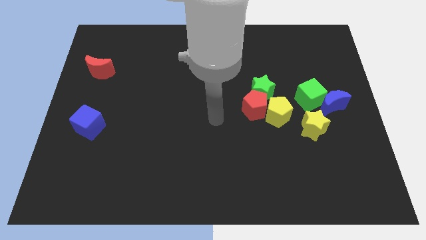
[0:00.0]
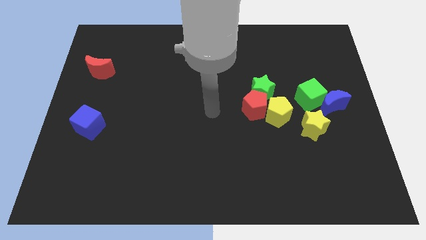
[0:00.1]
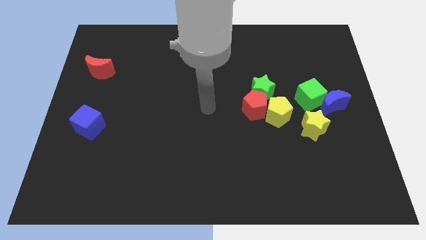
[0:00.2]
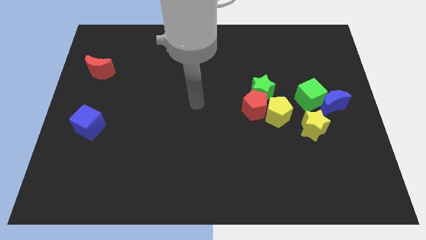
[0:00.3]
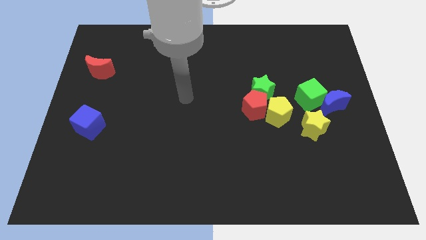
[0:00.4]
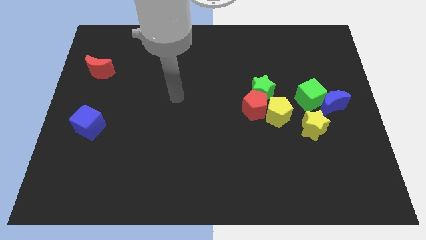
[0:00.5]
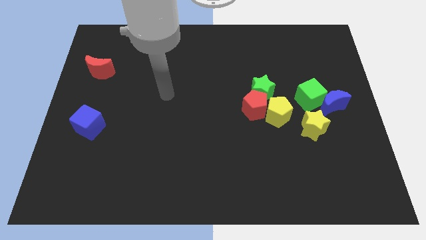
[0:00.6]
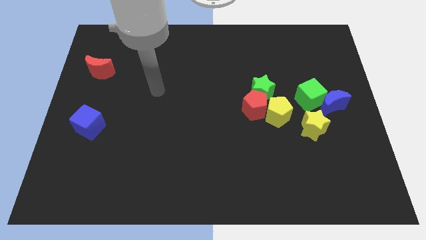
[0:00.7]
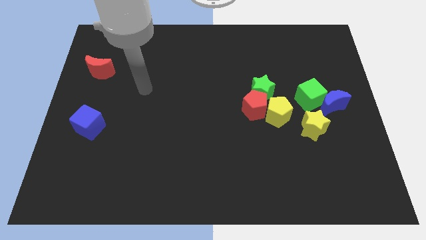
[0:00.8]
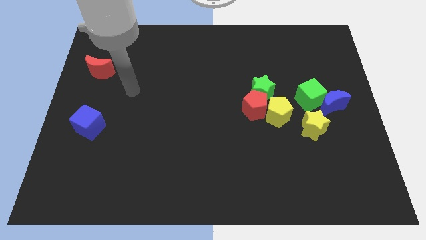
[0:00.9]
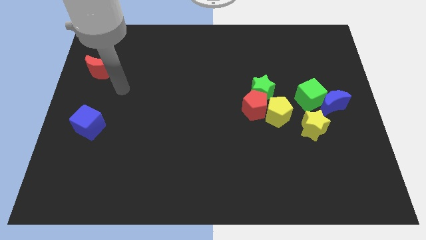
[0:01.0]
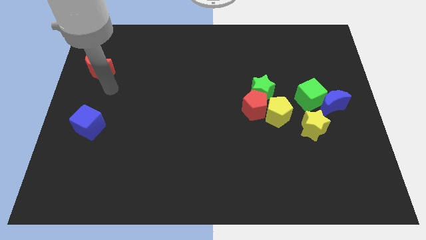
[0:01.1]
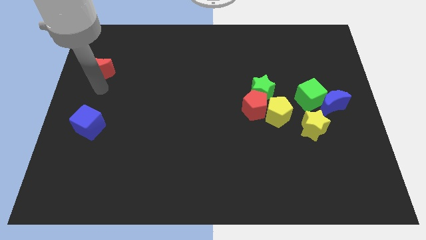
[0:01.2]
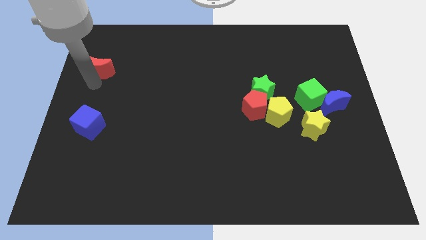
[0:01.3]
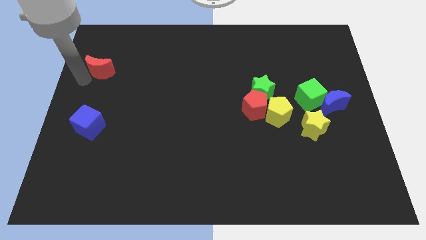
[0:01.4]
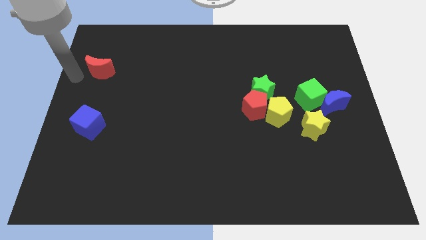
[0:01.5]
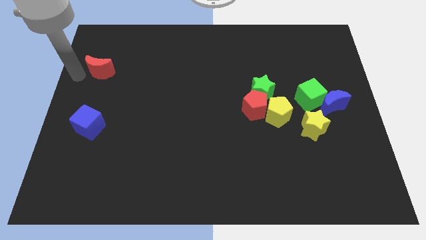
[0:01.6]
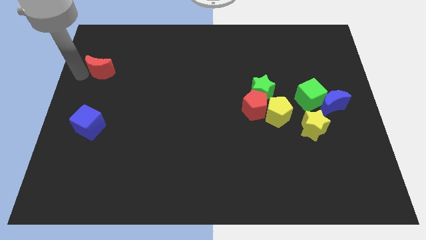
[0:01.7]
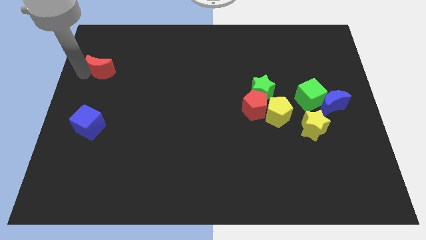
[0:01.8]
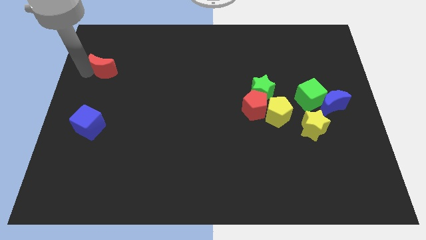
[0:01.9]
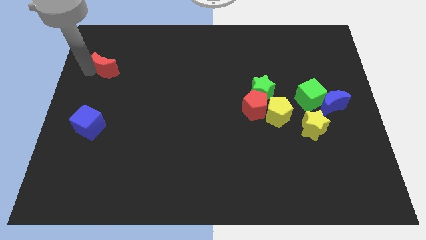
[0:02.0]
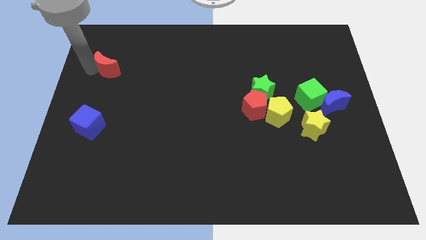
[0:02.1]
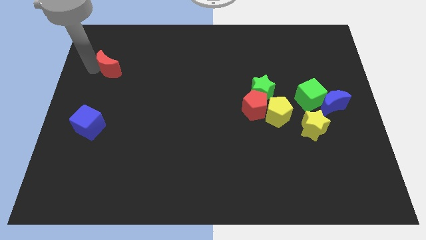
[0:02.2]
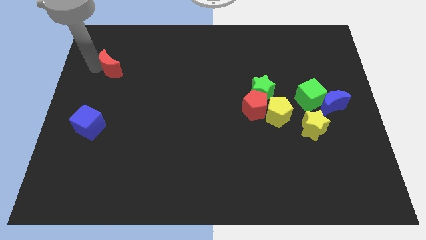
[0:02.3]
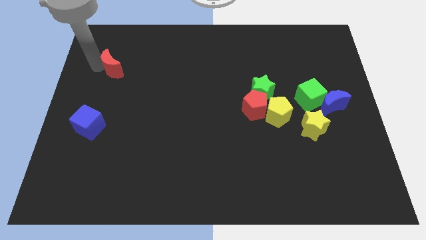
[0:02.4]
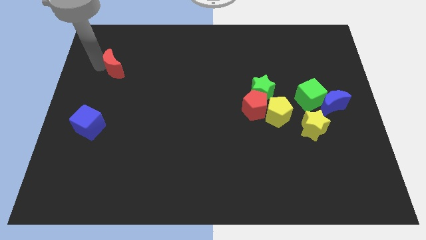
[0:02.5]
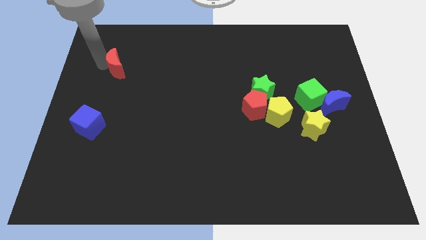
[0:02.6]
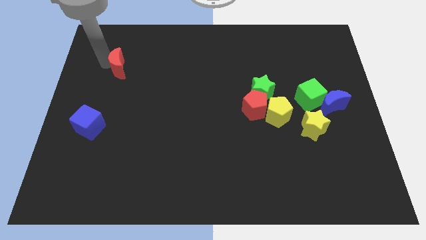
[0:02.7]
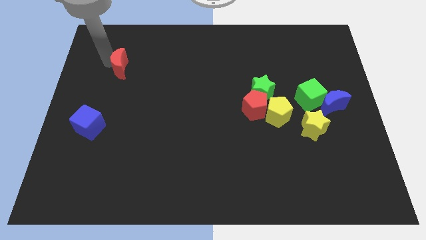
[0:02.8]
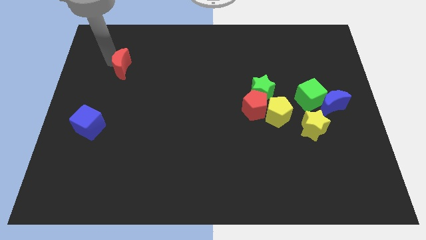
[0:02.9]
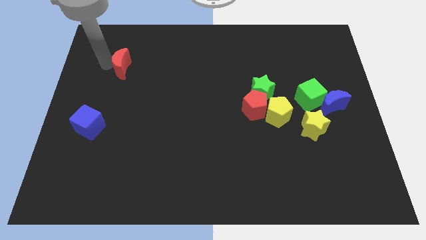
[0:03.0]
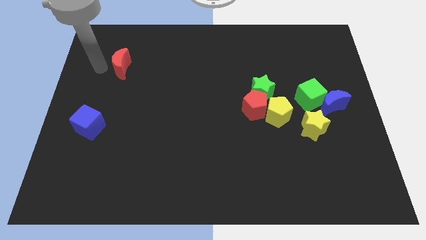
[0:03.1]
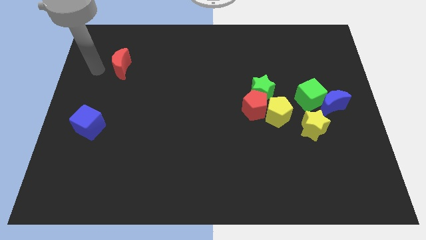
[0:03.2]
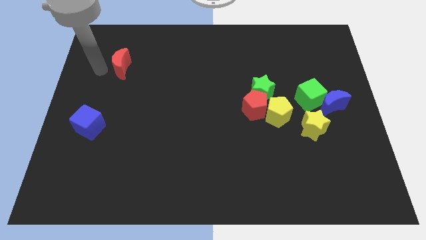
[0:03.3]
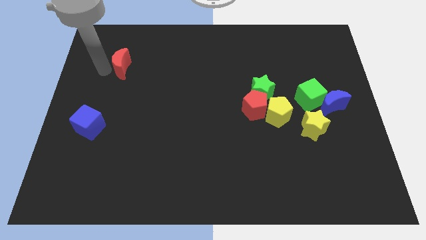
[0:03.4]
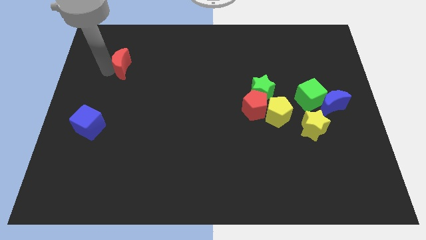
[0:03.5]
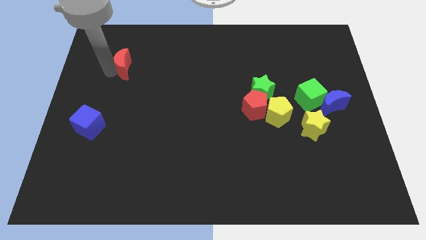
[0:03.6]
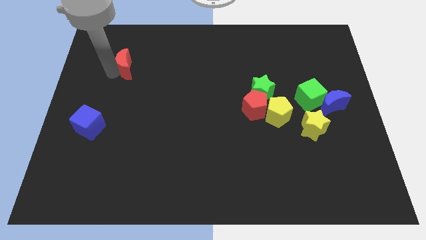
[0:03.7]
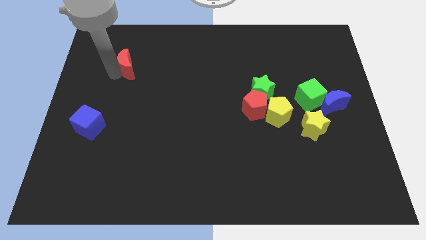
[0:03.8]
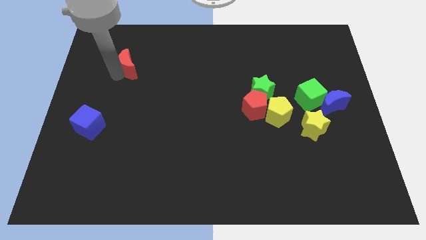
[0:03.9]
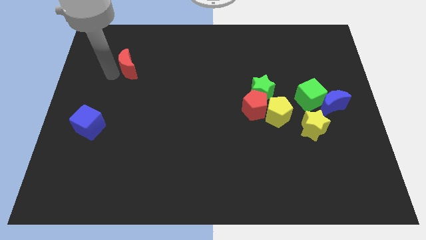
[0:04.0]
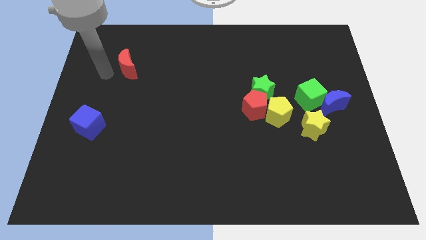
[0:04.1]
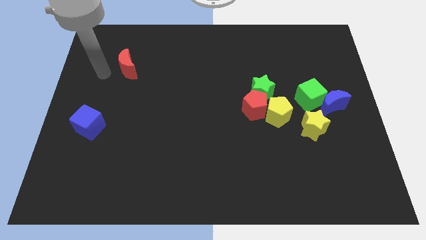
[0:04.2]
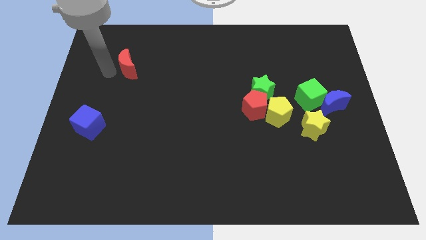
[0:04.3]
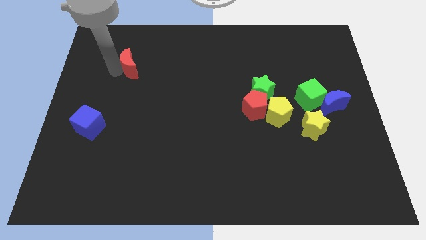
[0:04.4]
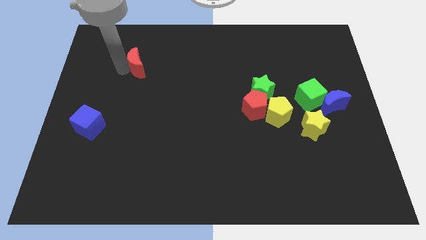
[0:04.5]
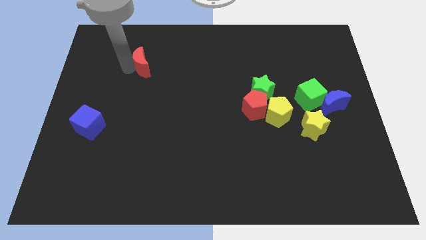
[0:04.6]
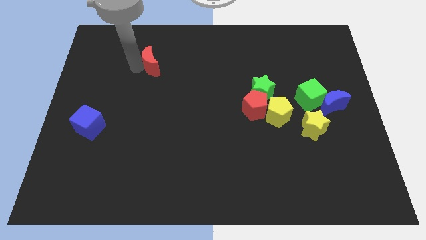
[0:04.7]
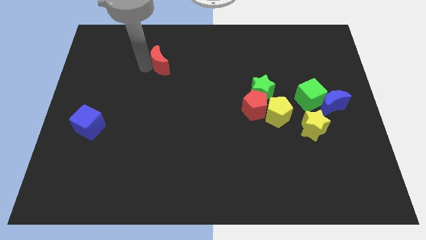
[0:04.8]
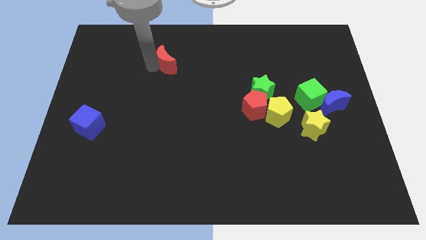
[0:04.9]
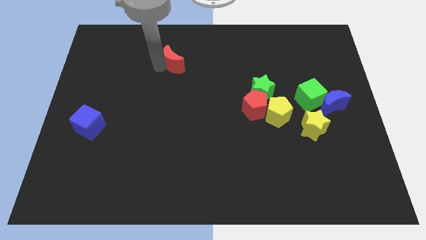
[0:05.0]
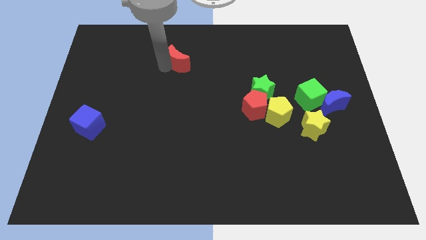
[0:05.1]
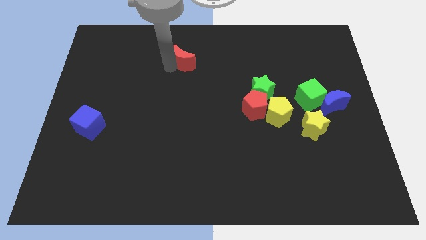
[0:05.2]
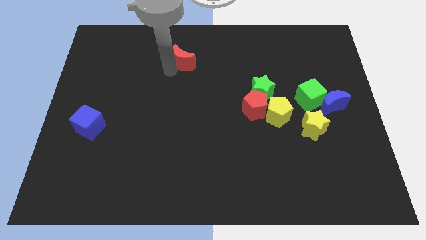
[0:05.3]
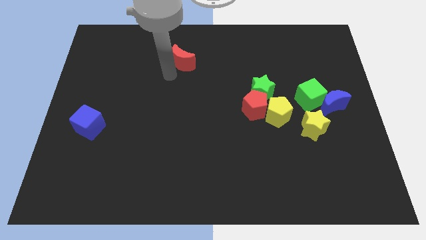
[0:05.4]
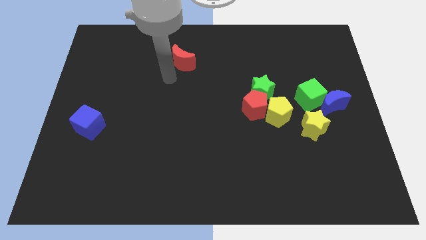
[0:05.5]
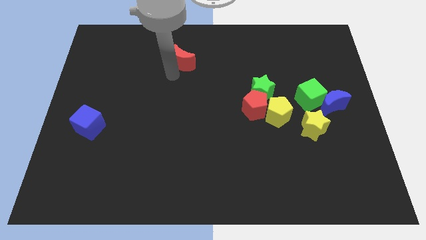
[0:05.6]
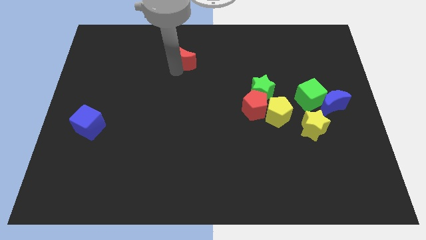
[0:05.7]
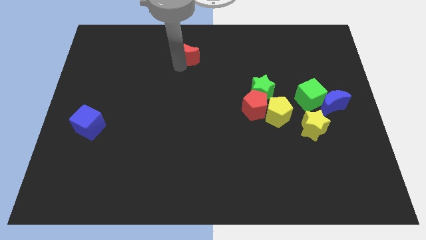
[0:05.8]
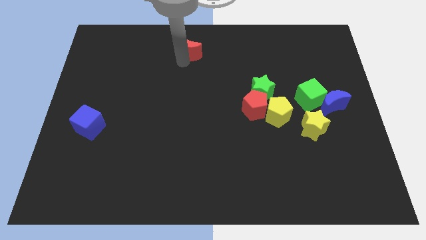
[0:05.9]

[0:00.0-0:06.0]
slide the red moon to the top side

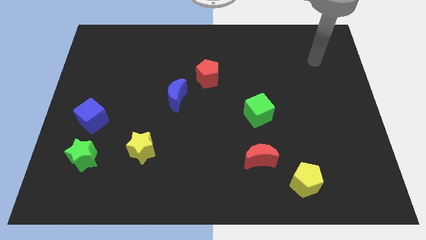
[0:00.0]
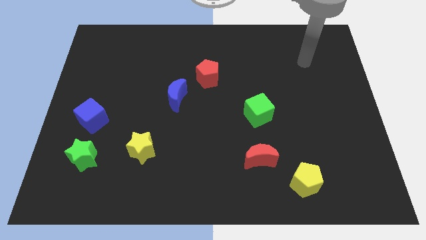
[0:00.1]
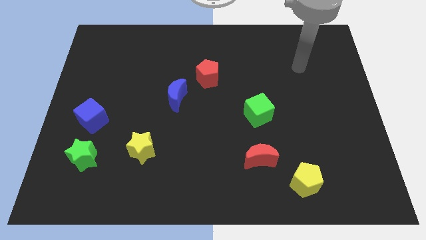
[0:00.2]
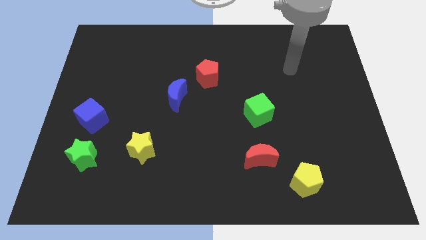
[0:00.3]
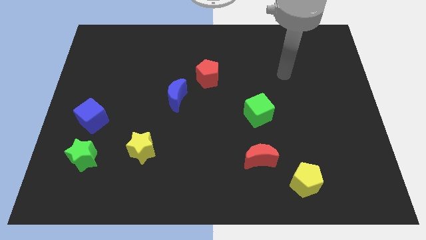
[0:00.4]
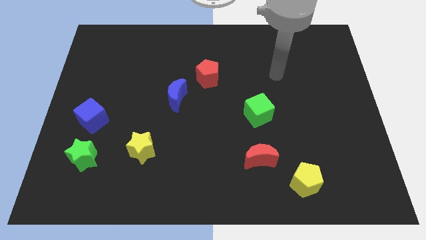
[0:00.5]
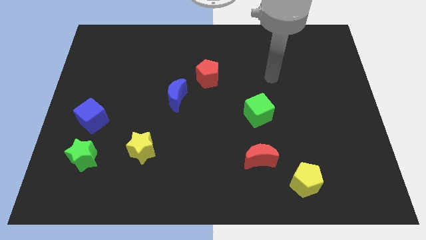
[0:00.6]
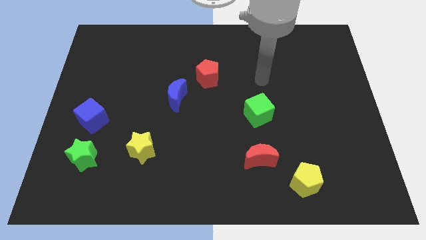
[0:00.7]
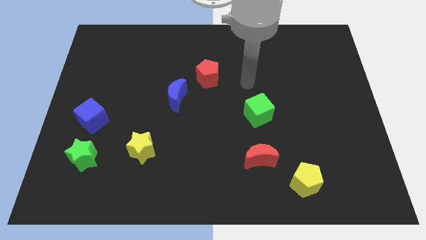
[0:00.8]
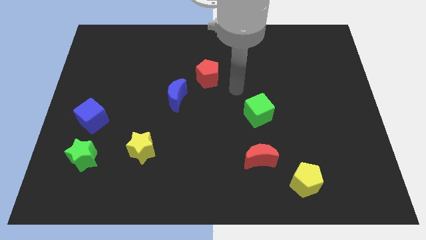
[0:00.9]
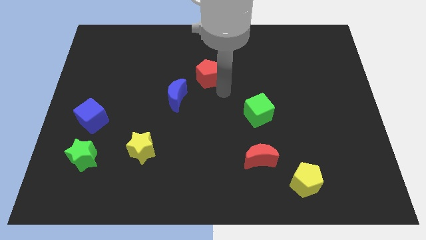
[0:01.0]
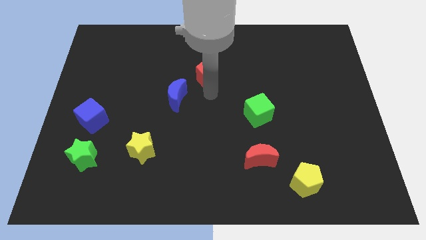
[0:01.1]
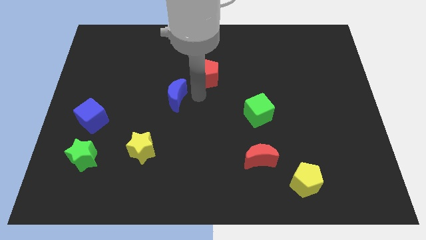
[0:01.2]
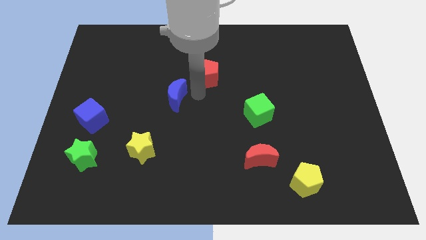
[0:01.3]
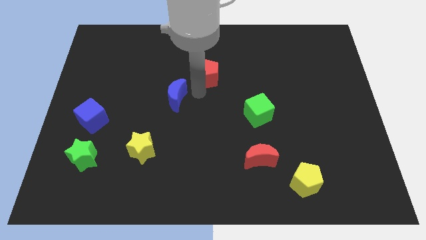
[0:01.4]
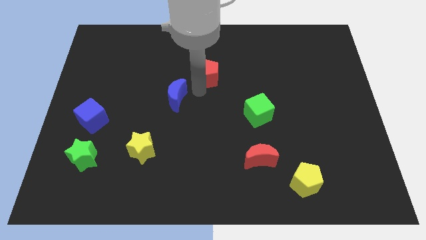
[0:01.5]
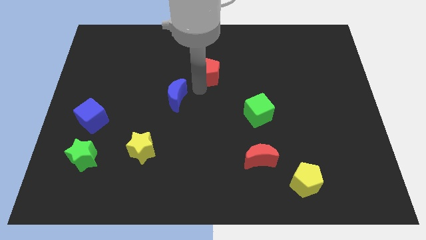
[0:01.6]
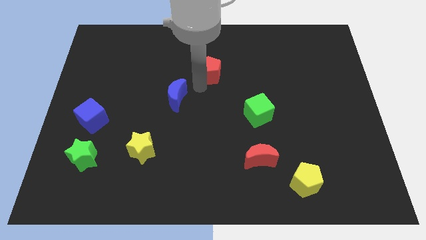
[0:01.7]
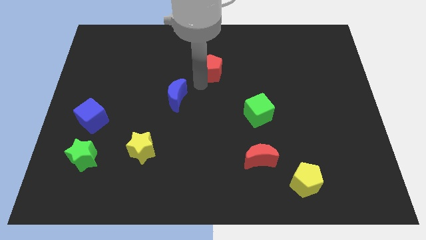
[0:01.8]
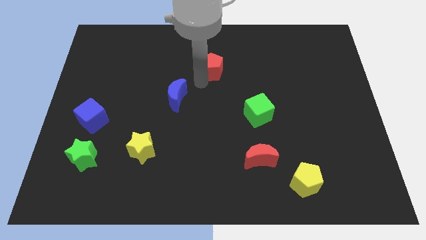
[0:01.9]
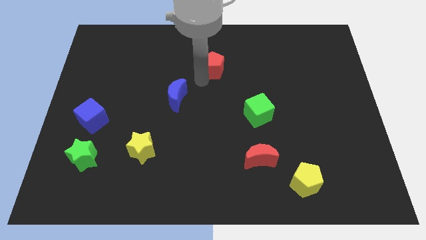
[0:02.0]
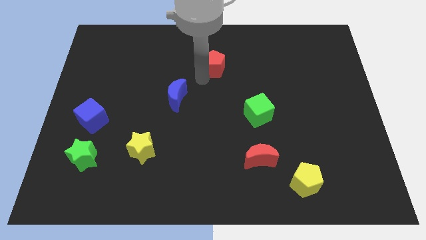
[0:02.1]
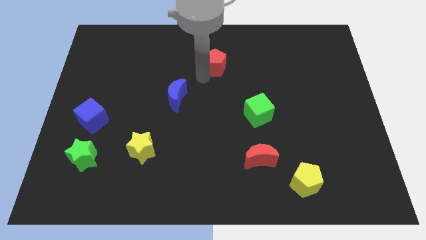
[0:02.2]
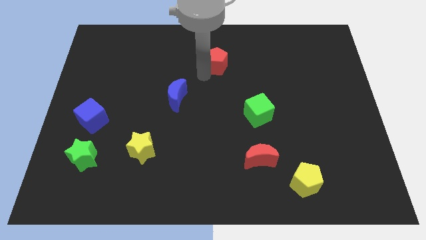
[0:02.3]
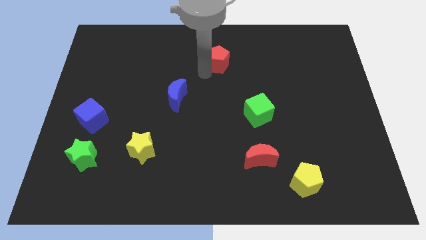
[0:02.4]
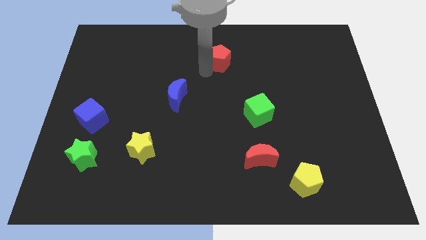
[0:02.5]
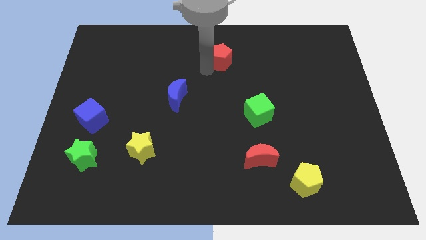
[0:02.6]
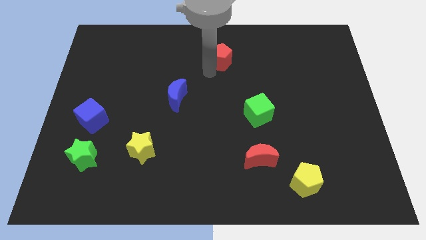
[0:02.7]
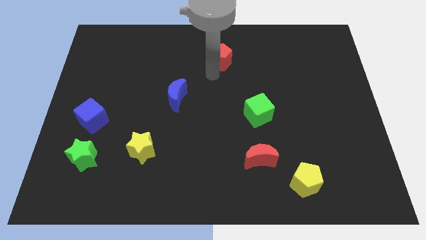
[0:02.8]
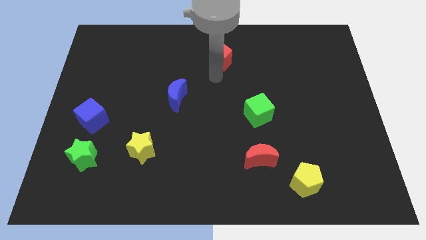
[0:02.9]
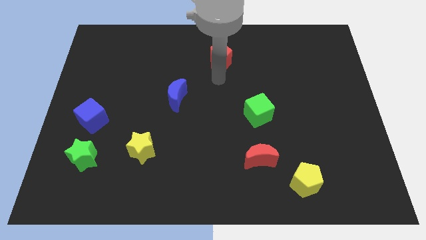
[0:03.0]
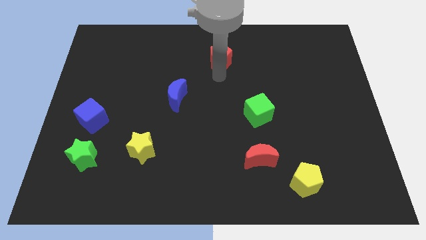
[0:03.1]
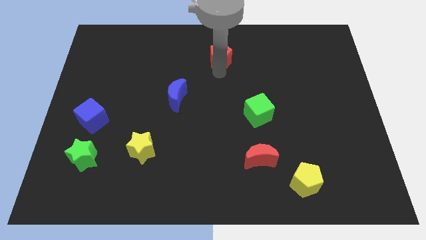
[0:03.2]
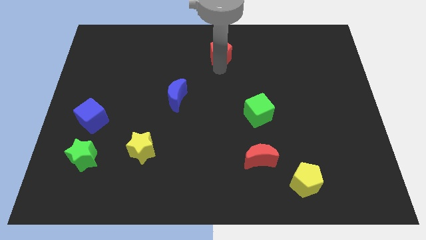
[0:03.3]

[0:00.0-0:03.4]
slide the red pentagon to the top
